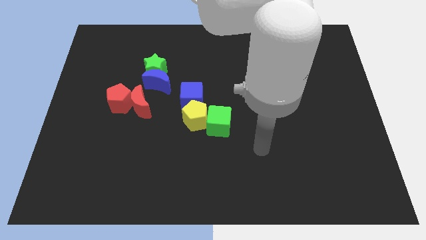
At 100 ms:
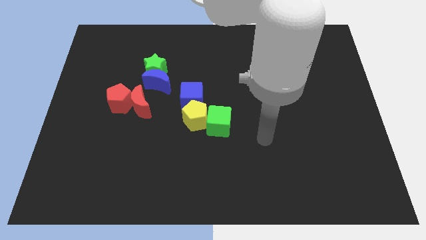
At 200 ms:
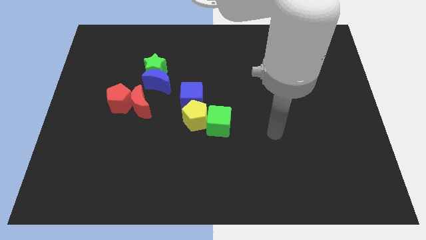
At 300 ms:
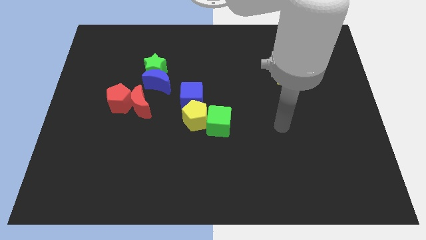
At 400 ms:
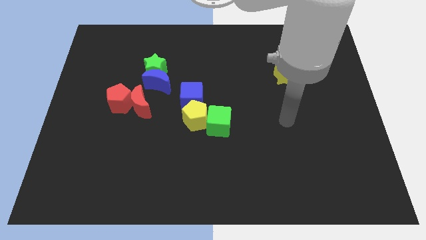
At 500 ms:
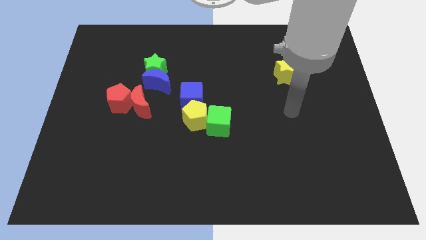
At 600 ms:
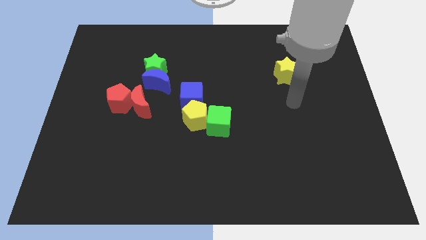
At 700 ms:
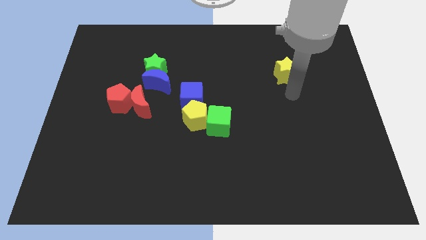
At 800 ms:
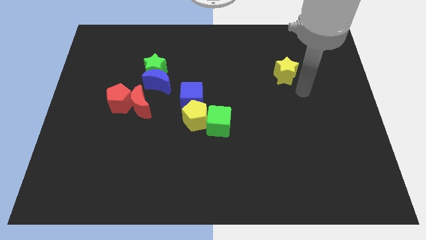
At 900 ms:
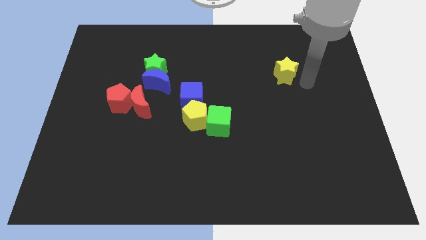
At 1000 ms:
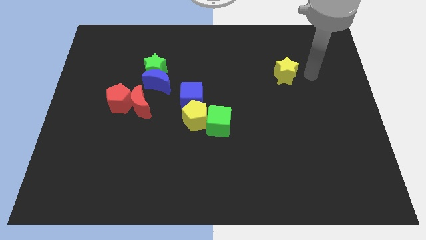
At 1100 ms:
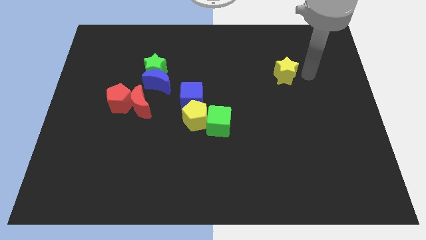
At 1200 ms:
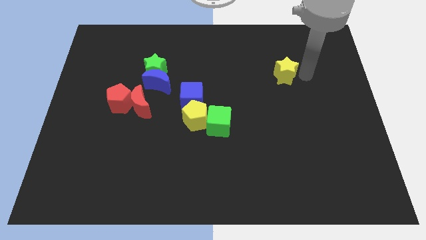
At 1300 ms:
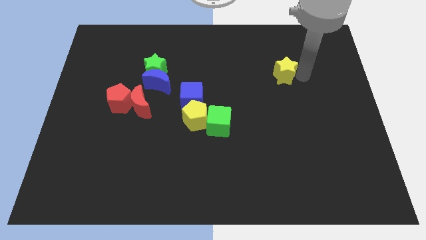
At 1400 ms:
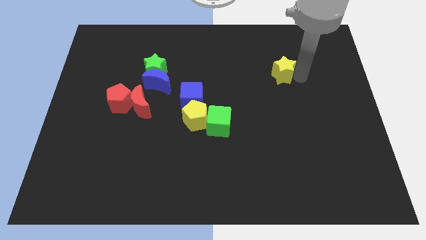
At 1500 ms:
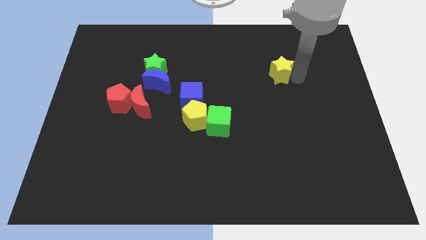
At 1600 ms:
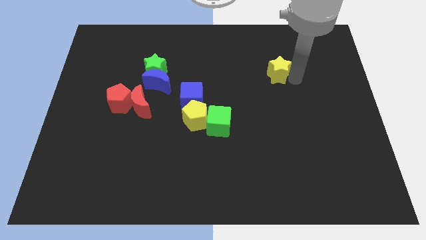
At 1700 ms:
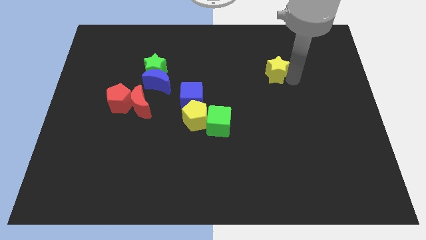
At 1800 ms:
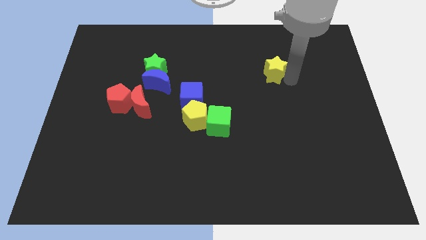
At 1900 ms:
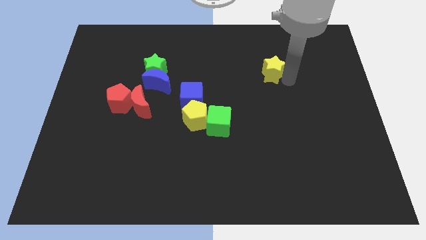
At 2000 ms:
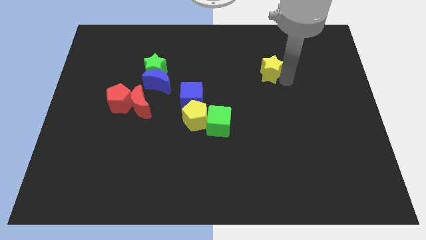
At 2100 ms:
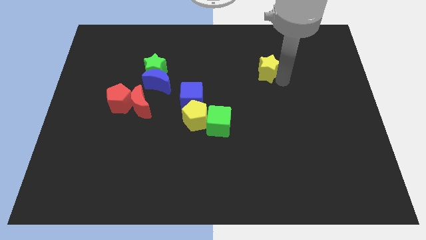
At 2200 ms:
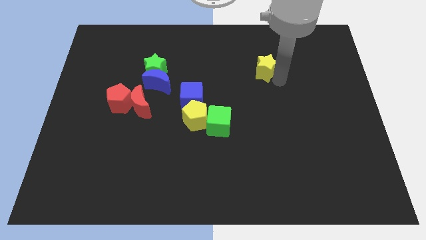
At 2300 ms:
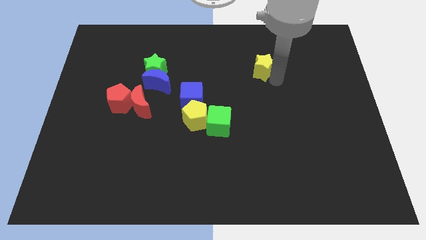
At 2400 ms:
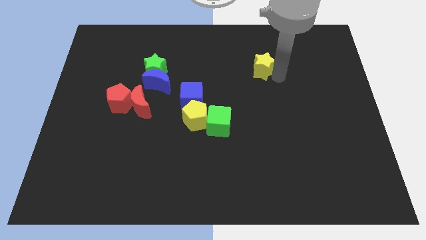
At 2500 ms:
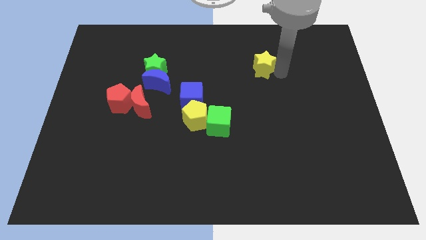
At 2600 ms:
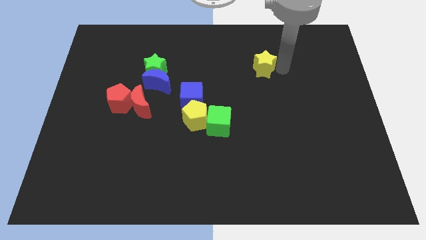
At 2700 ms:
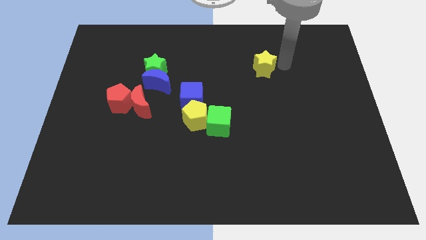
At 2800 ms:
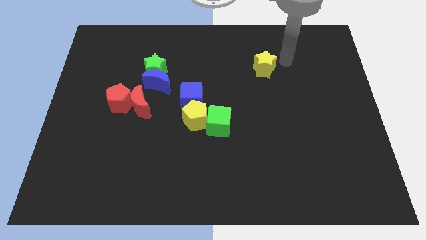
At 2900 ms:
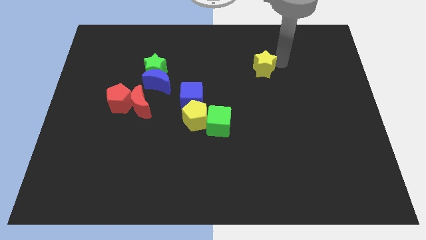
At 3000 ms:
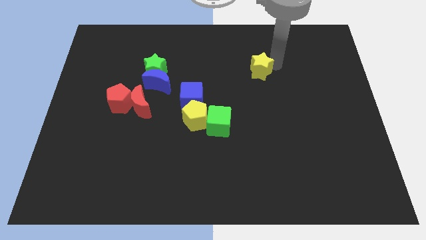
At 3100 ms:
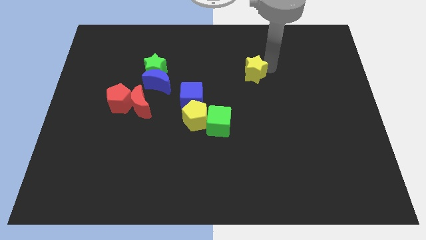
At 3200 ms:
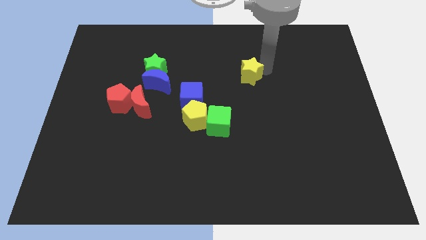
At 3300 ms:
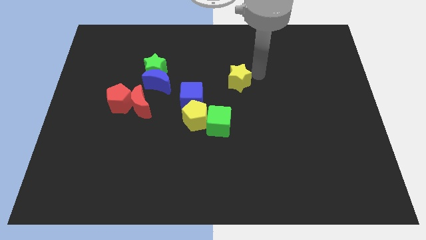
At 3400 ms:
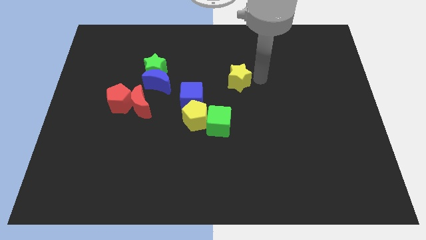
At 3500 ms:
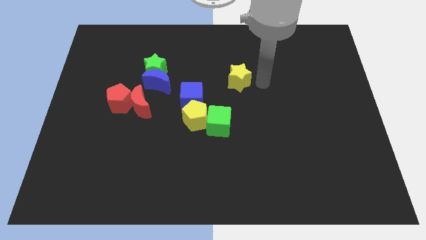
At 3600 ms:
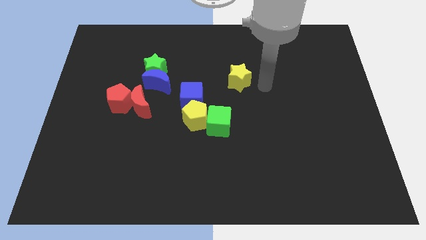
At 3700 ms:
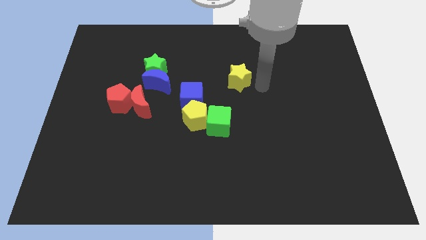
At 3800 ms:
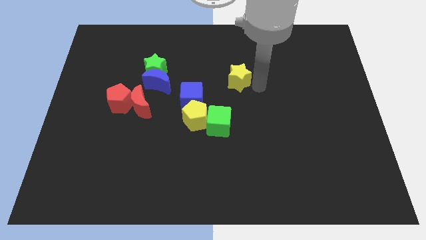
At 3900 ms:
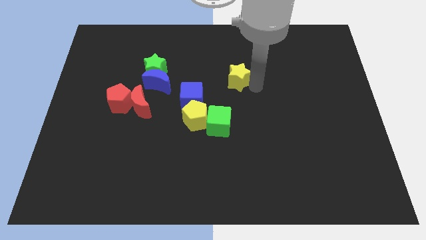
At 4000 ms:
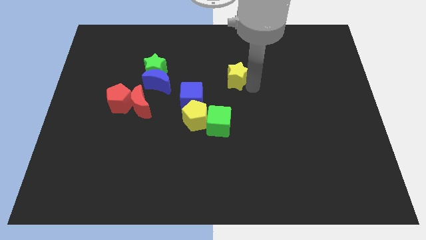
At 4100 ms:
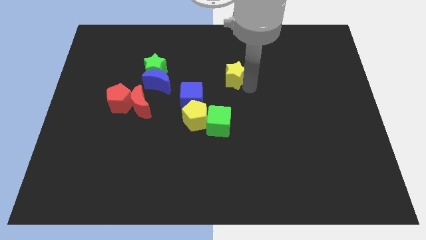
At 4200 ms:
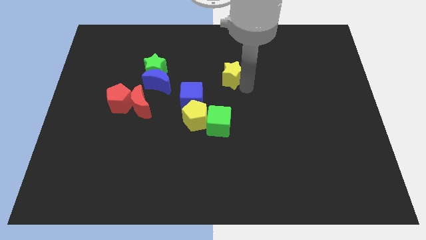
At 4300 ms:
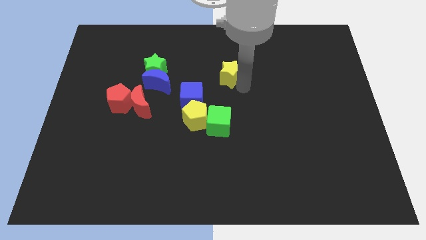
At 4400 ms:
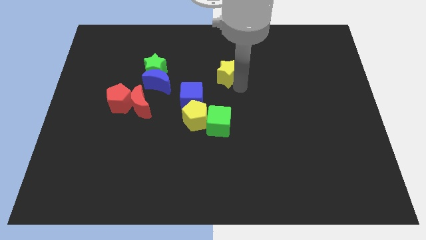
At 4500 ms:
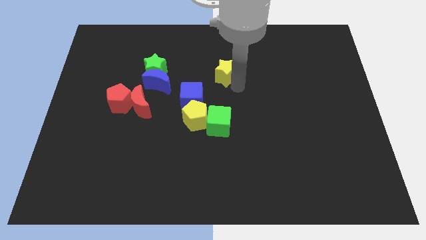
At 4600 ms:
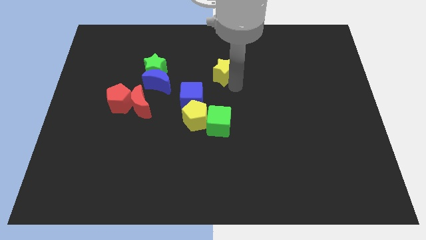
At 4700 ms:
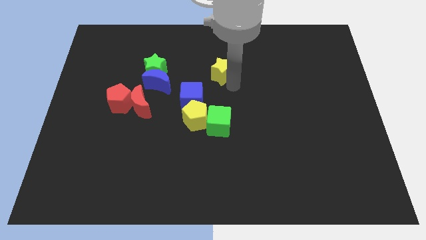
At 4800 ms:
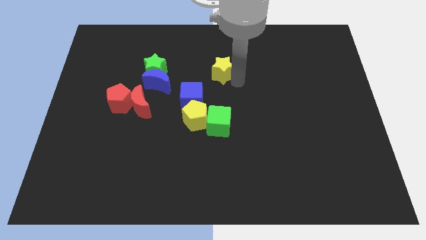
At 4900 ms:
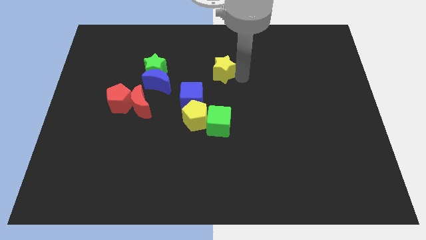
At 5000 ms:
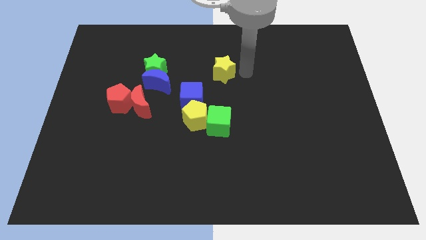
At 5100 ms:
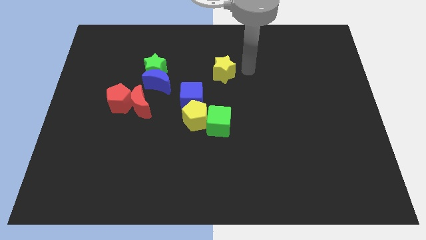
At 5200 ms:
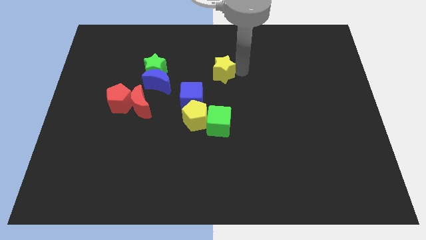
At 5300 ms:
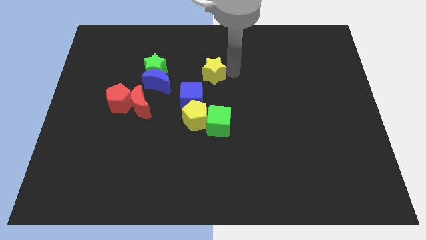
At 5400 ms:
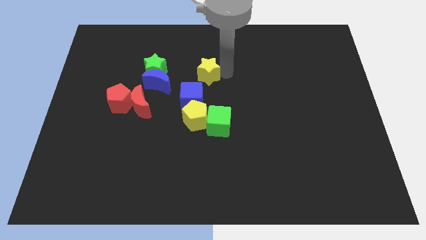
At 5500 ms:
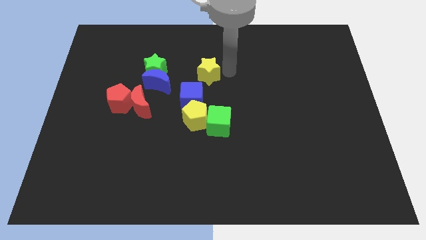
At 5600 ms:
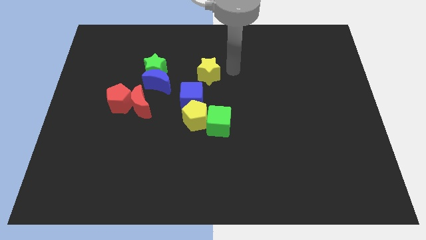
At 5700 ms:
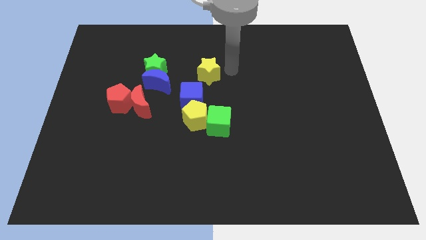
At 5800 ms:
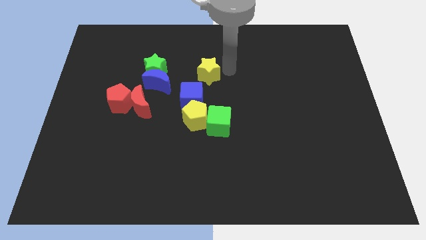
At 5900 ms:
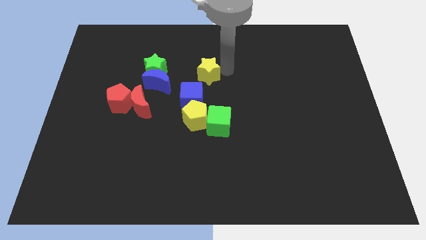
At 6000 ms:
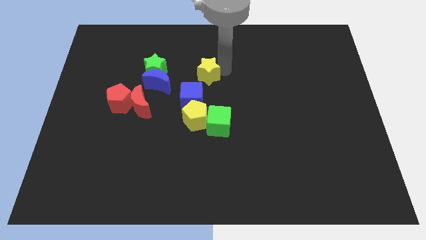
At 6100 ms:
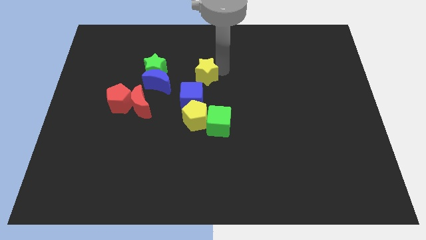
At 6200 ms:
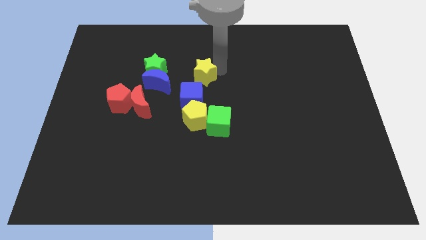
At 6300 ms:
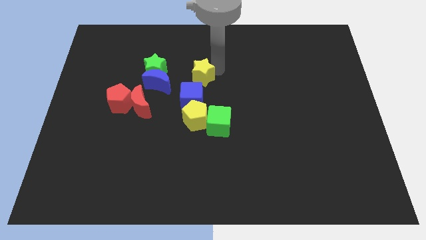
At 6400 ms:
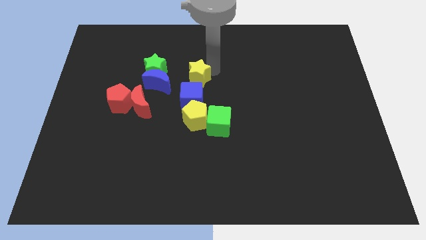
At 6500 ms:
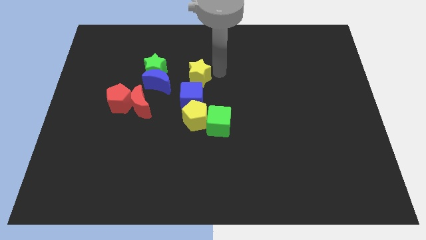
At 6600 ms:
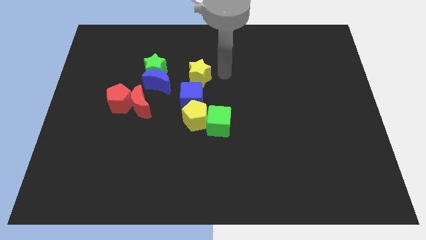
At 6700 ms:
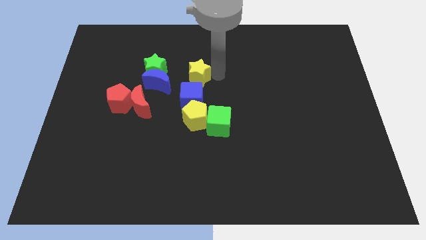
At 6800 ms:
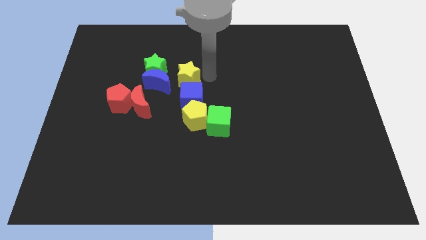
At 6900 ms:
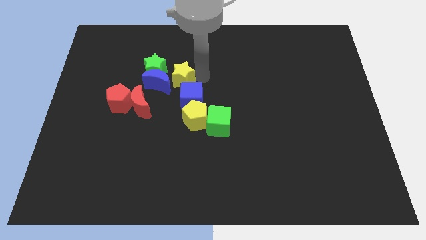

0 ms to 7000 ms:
move the yellow star towards the blue moon
